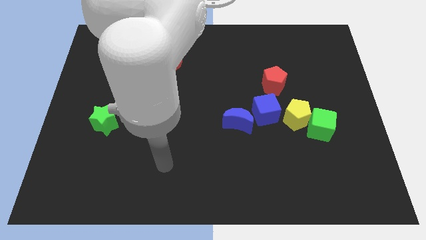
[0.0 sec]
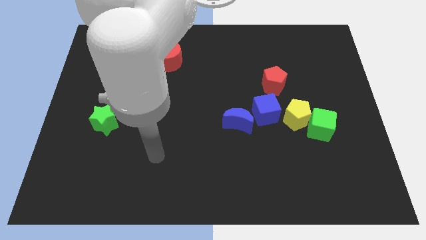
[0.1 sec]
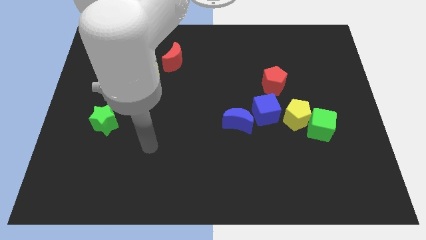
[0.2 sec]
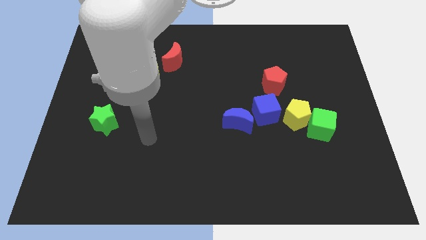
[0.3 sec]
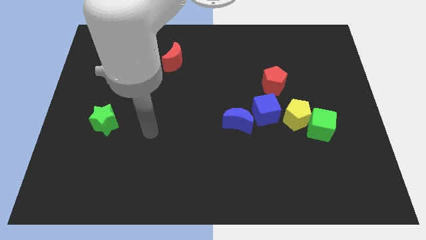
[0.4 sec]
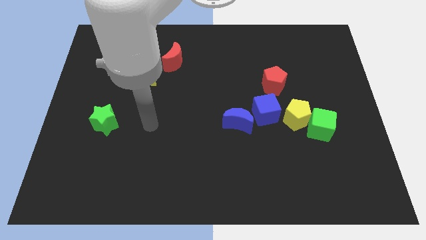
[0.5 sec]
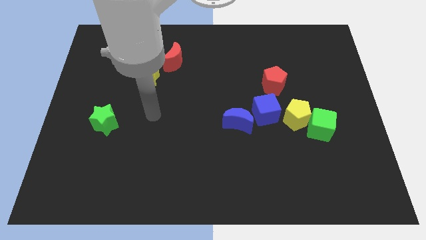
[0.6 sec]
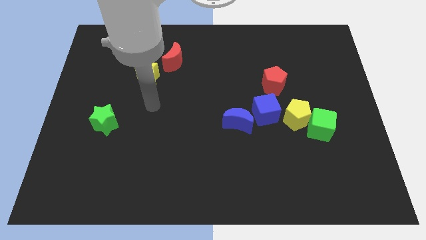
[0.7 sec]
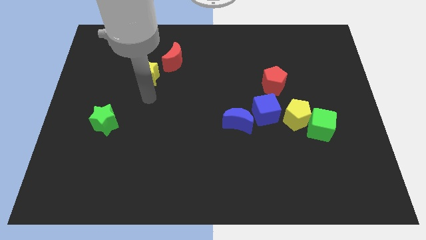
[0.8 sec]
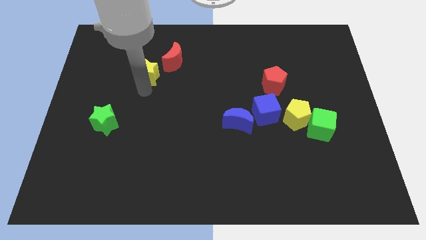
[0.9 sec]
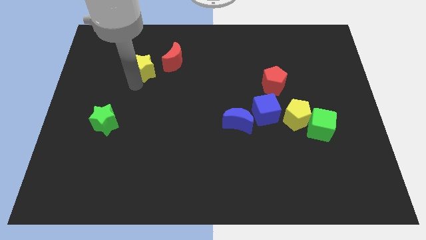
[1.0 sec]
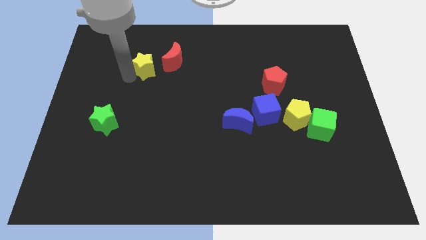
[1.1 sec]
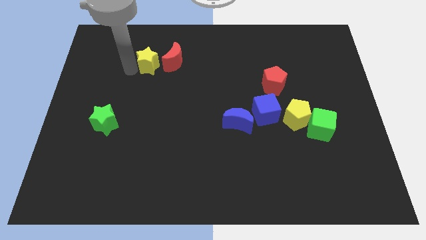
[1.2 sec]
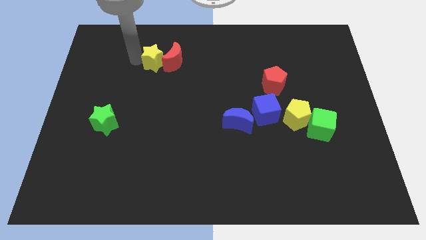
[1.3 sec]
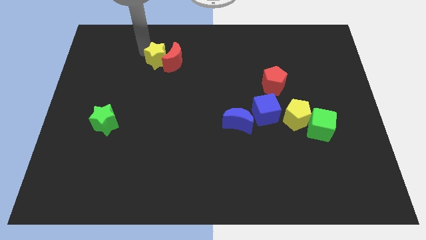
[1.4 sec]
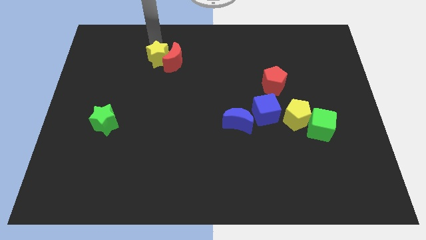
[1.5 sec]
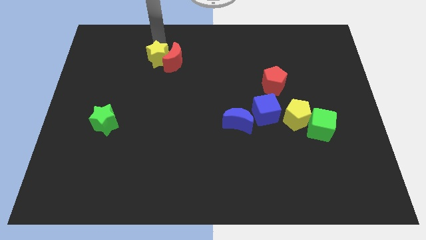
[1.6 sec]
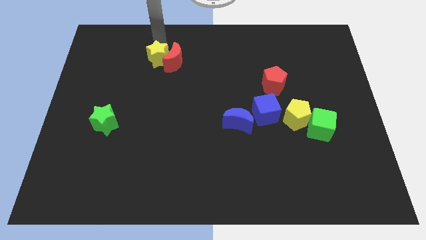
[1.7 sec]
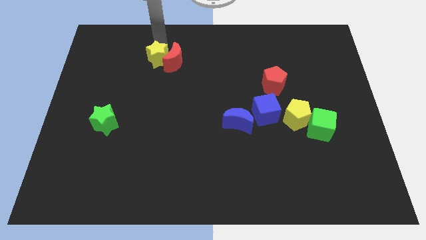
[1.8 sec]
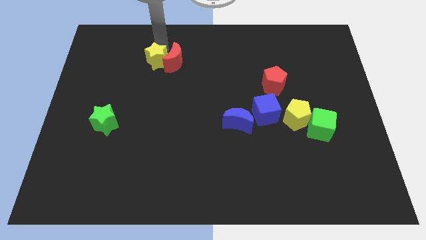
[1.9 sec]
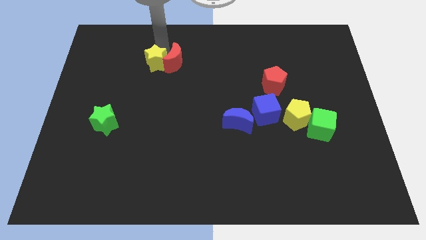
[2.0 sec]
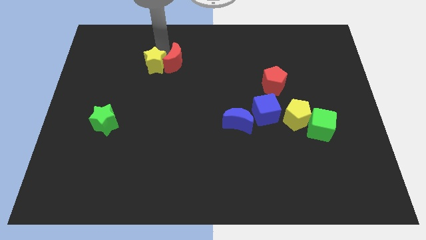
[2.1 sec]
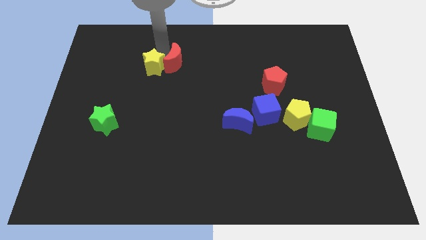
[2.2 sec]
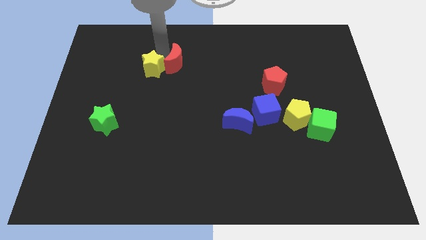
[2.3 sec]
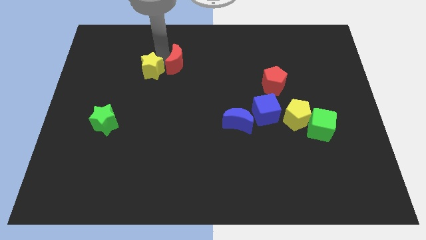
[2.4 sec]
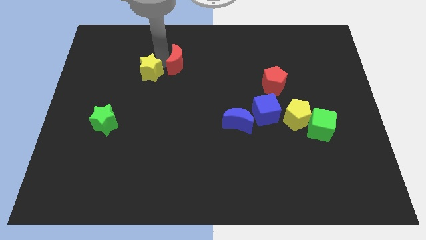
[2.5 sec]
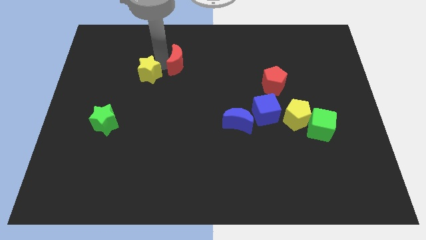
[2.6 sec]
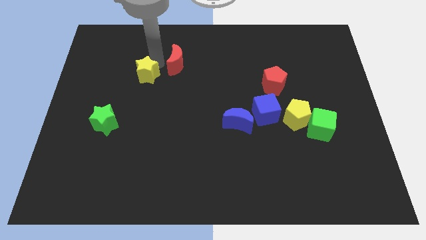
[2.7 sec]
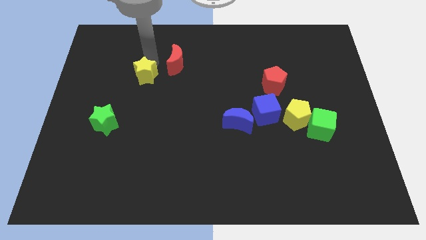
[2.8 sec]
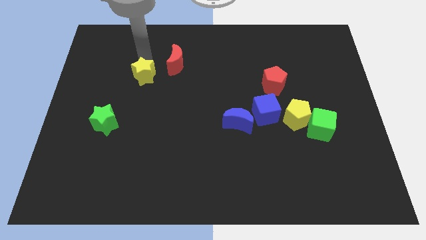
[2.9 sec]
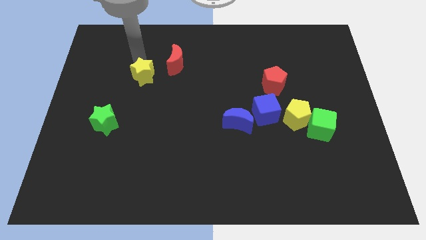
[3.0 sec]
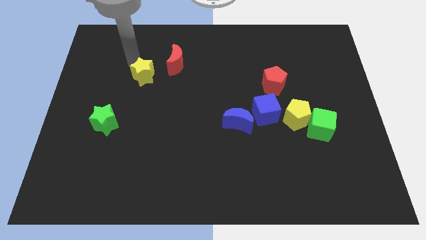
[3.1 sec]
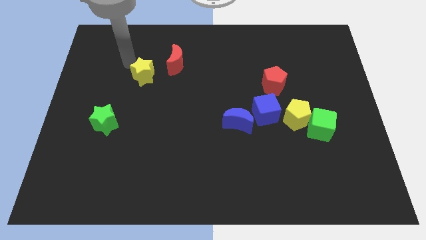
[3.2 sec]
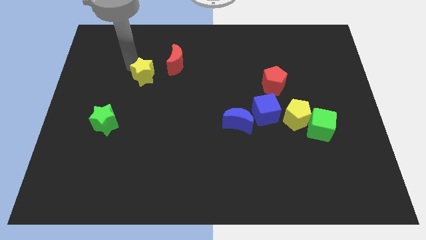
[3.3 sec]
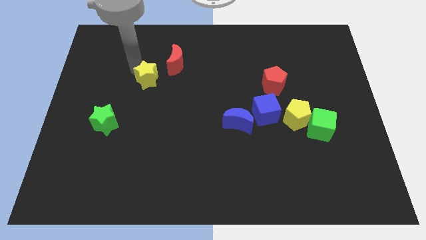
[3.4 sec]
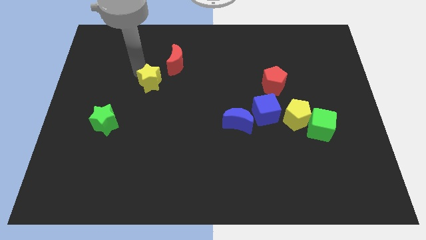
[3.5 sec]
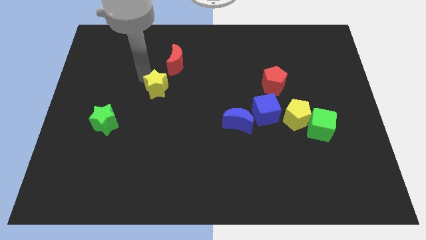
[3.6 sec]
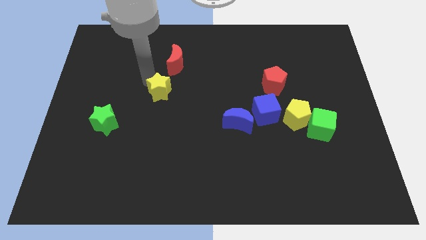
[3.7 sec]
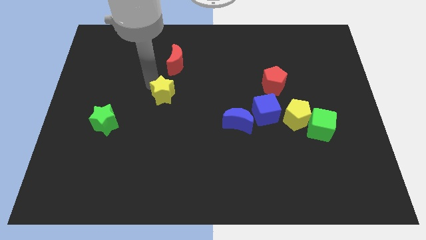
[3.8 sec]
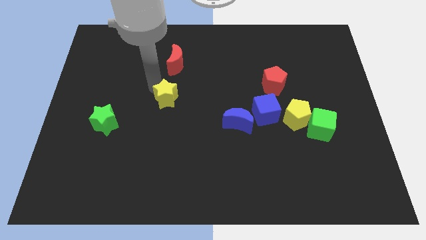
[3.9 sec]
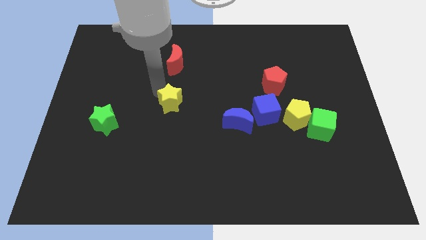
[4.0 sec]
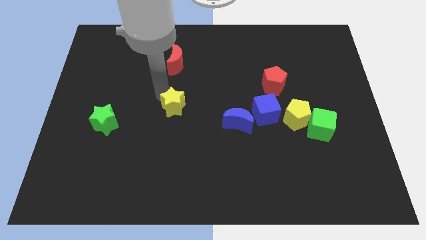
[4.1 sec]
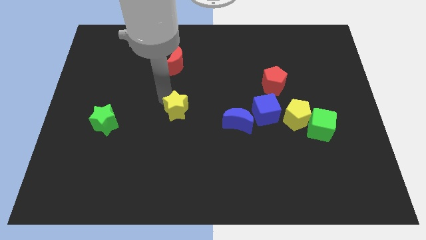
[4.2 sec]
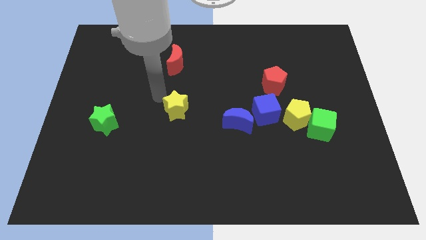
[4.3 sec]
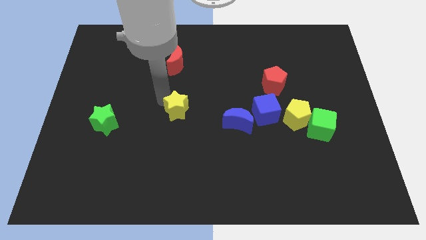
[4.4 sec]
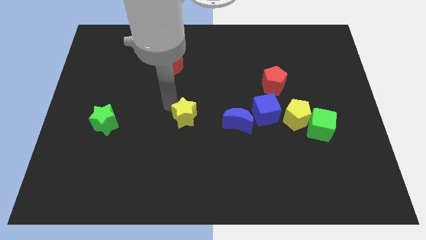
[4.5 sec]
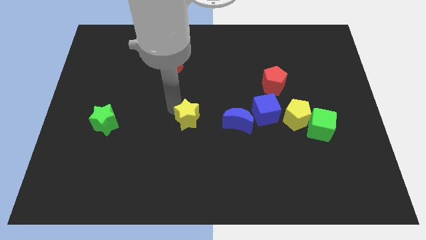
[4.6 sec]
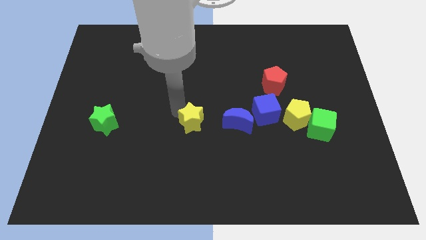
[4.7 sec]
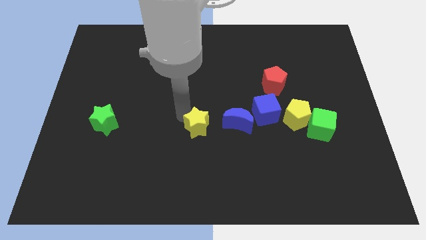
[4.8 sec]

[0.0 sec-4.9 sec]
move the yellow star down and then right

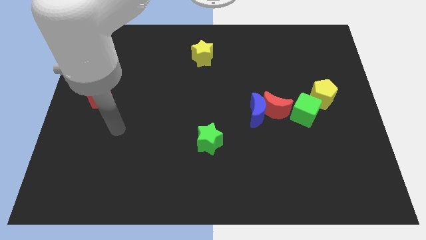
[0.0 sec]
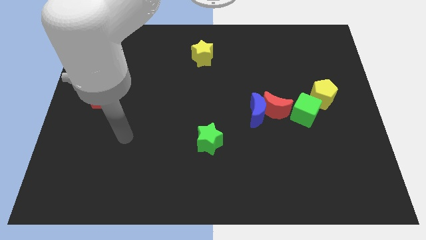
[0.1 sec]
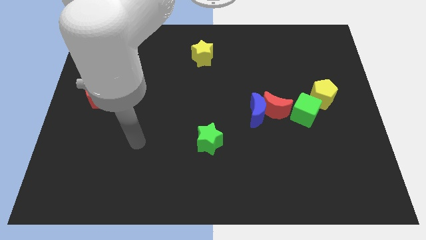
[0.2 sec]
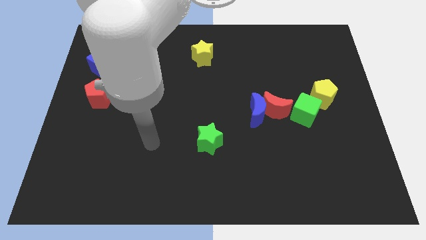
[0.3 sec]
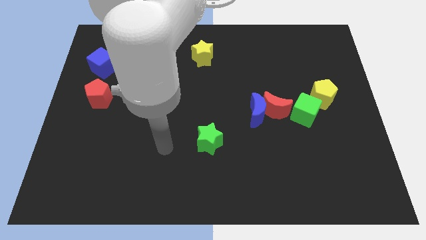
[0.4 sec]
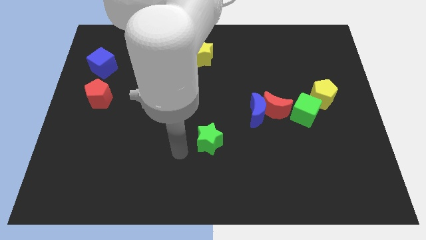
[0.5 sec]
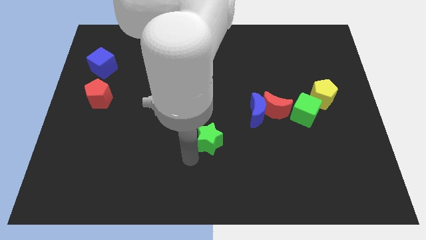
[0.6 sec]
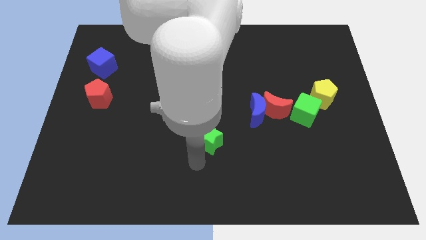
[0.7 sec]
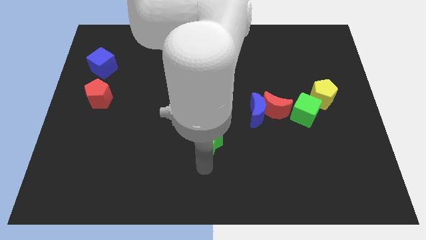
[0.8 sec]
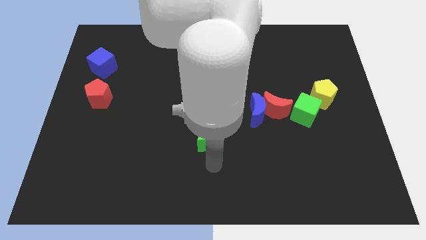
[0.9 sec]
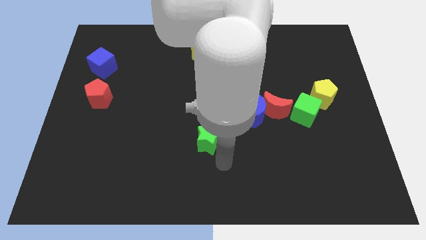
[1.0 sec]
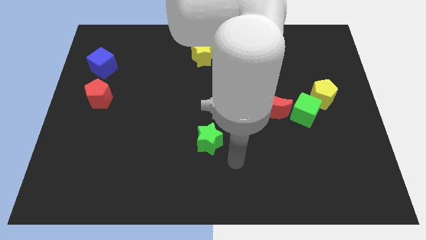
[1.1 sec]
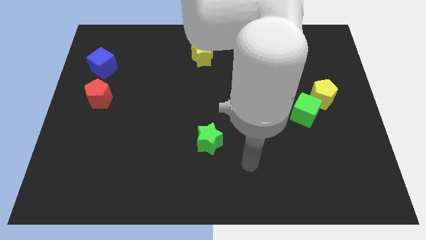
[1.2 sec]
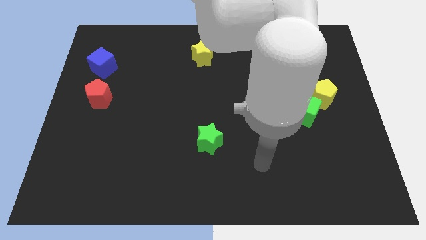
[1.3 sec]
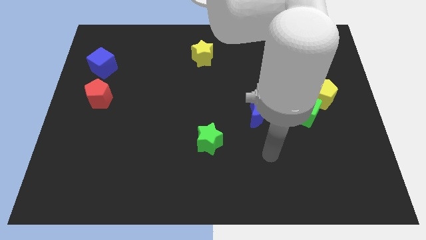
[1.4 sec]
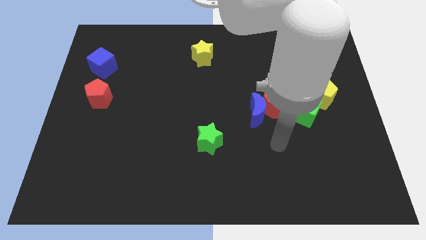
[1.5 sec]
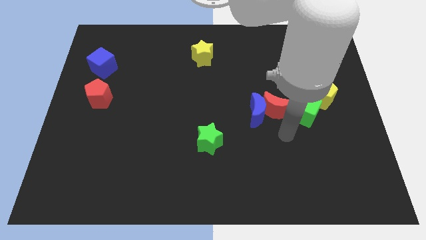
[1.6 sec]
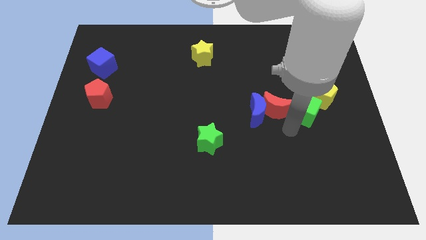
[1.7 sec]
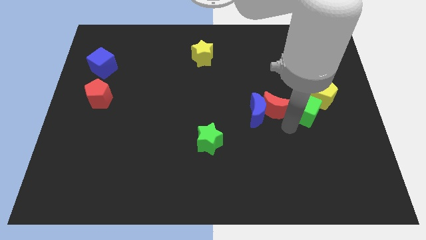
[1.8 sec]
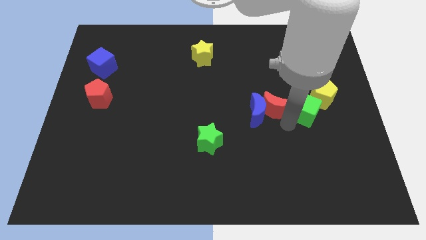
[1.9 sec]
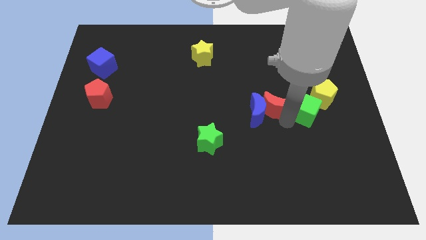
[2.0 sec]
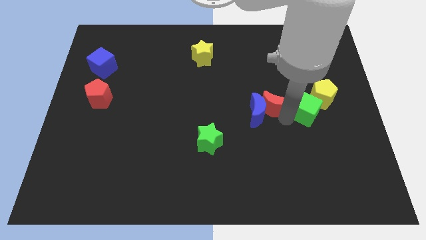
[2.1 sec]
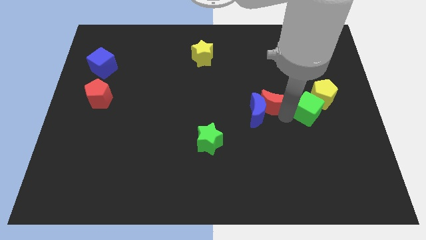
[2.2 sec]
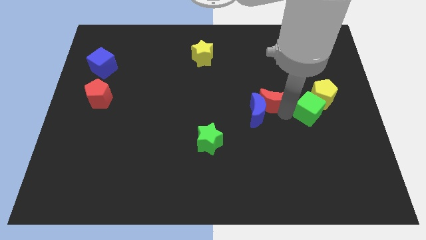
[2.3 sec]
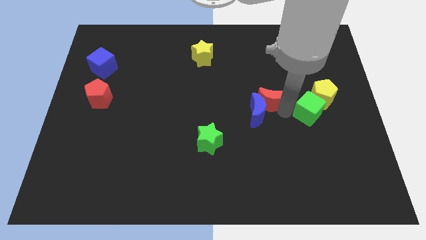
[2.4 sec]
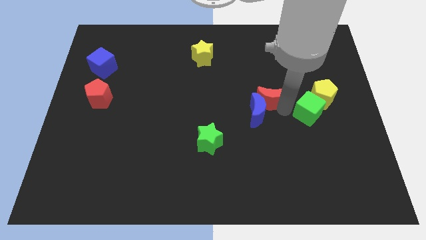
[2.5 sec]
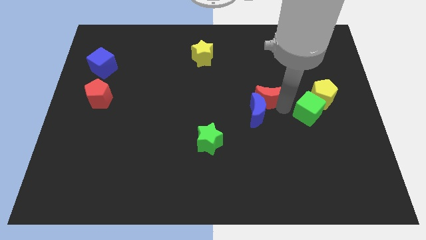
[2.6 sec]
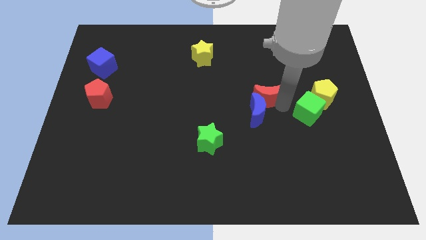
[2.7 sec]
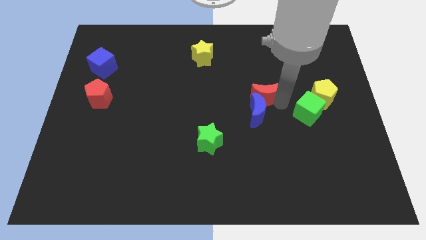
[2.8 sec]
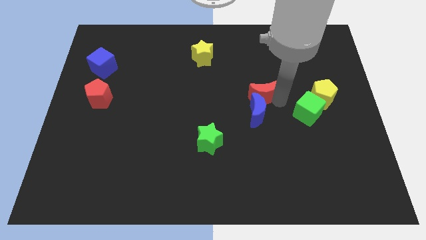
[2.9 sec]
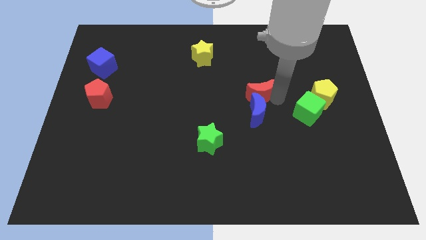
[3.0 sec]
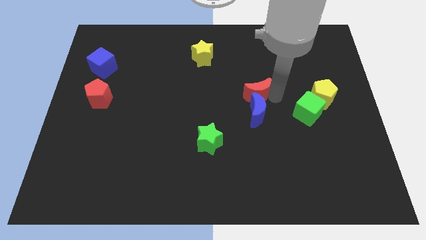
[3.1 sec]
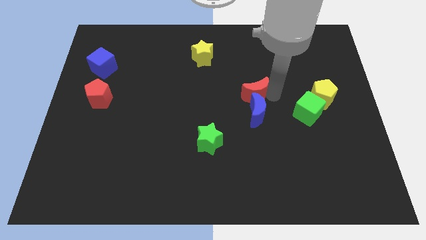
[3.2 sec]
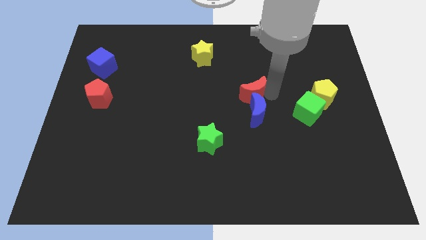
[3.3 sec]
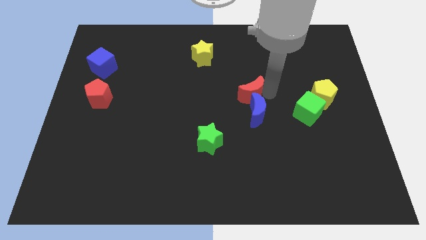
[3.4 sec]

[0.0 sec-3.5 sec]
slide the red moon a bit upwards and left diagonally

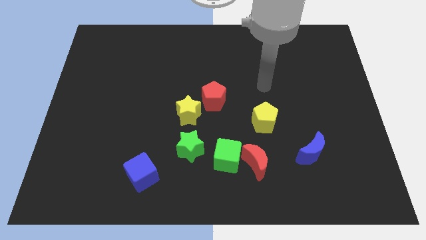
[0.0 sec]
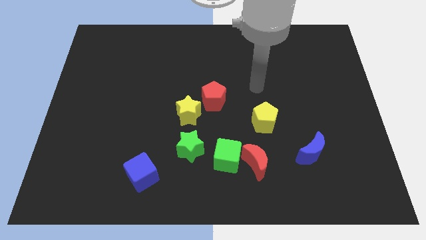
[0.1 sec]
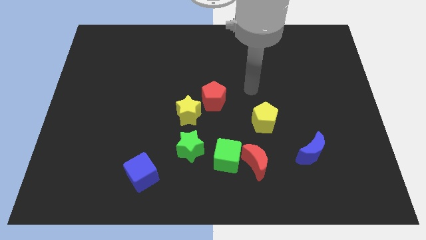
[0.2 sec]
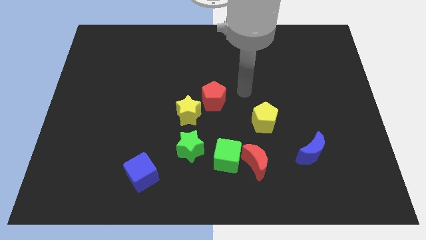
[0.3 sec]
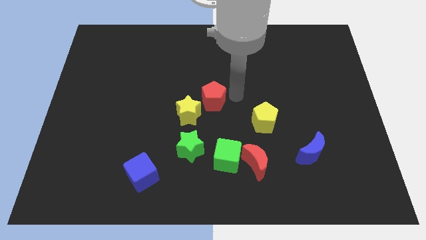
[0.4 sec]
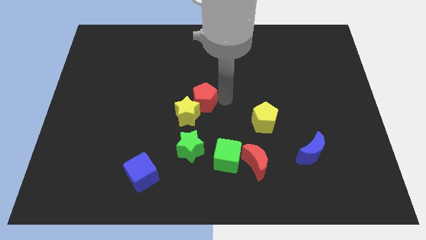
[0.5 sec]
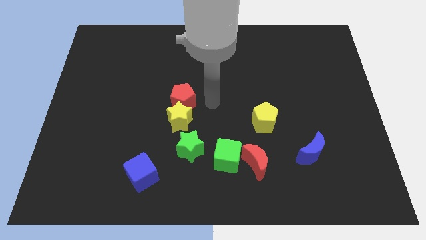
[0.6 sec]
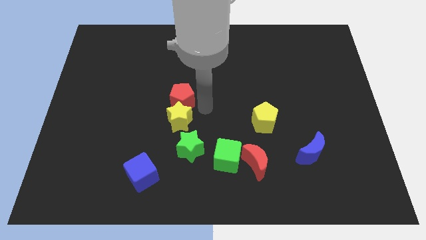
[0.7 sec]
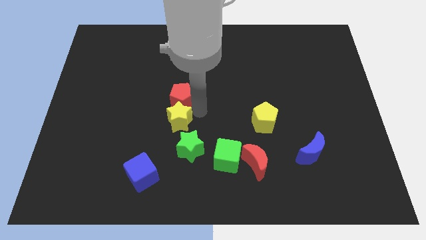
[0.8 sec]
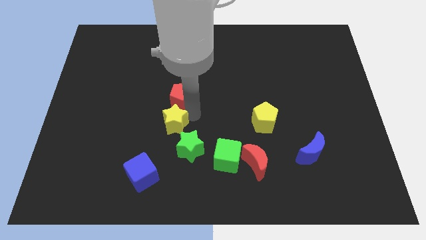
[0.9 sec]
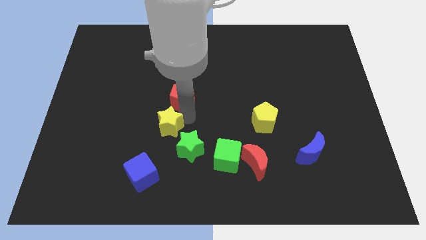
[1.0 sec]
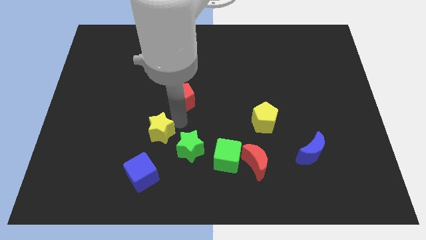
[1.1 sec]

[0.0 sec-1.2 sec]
slightly move the yellow star down and to the left diagonally
